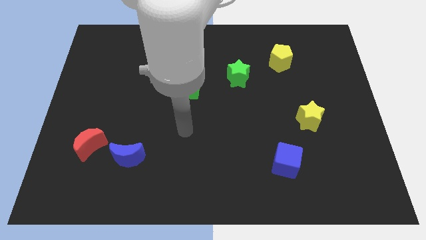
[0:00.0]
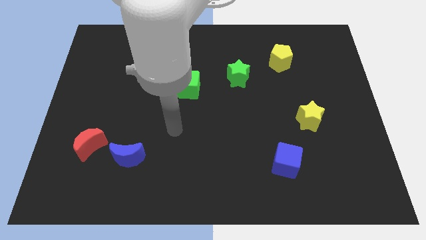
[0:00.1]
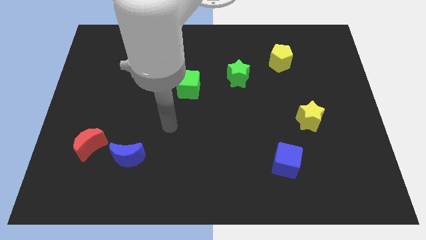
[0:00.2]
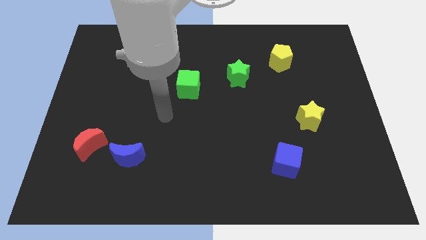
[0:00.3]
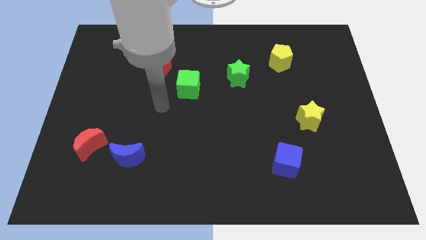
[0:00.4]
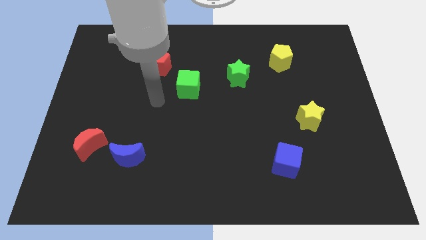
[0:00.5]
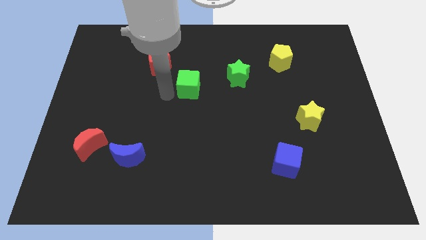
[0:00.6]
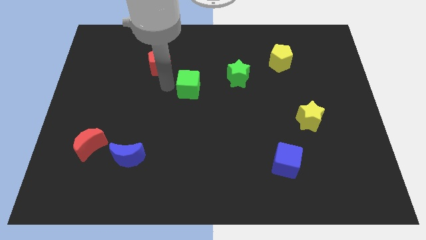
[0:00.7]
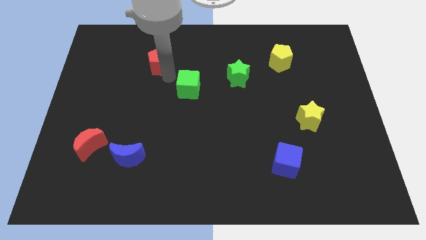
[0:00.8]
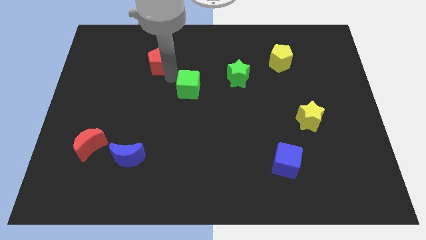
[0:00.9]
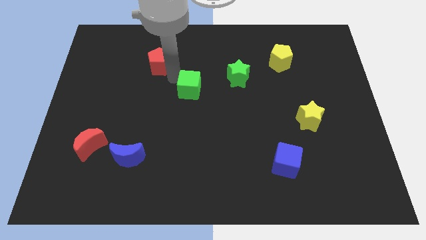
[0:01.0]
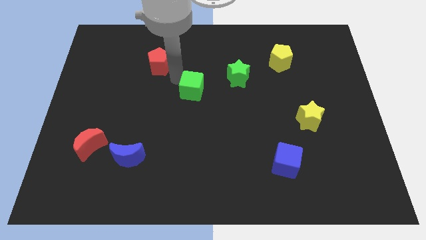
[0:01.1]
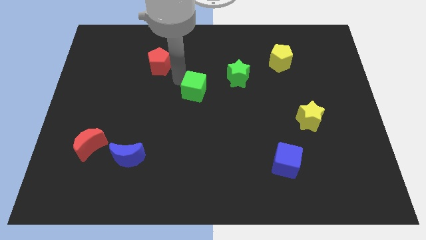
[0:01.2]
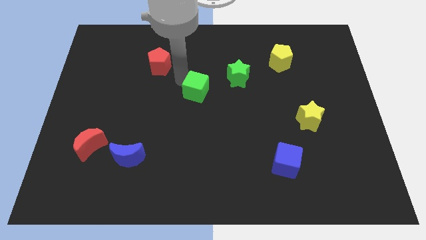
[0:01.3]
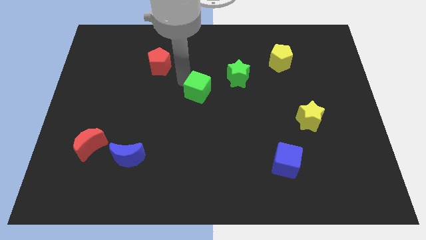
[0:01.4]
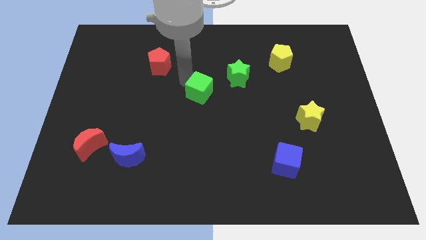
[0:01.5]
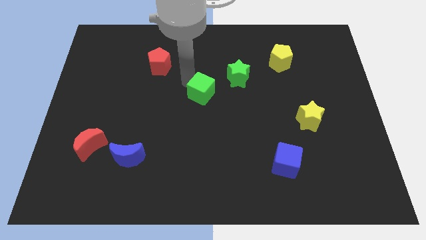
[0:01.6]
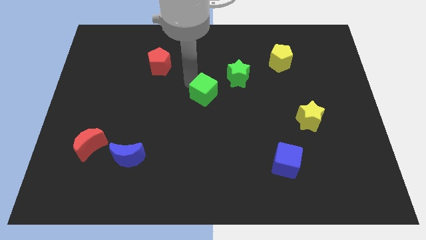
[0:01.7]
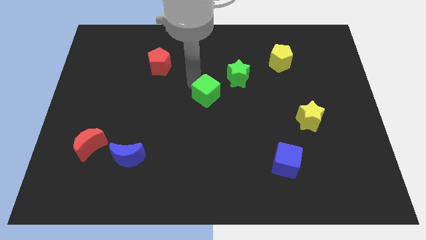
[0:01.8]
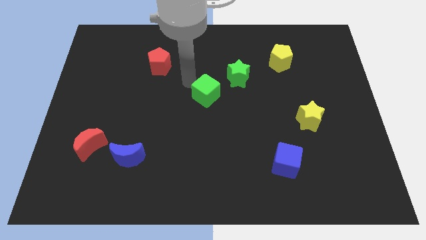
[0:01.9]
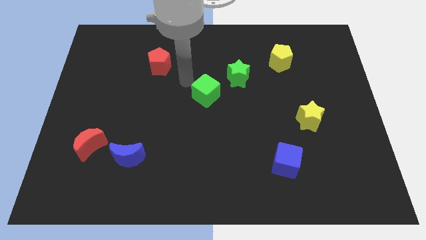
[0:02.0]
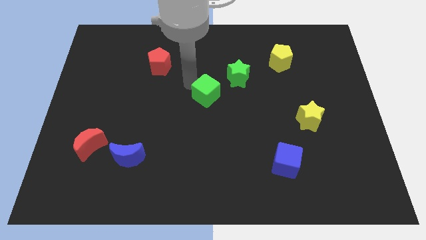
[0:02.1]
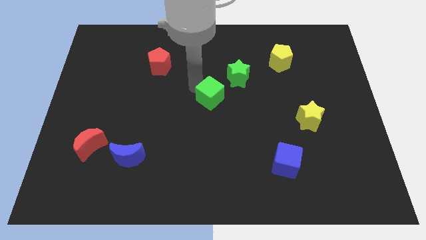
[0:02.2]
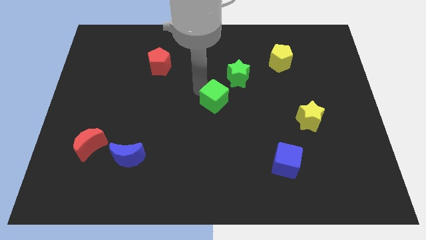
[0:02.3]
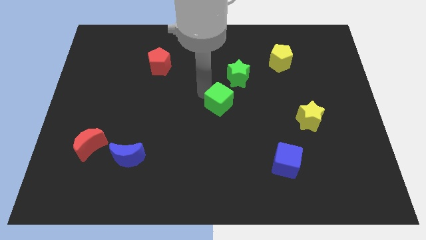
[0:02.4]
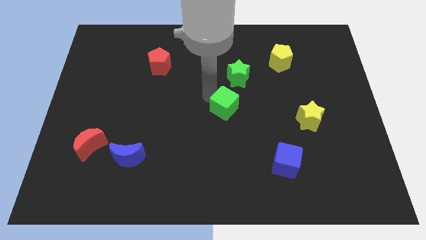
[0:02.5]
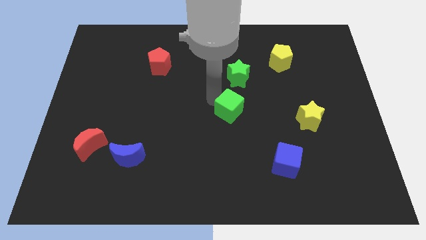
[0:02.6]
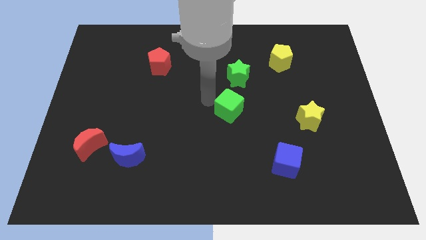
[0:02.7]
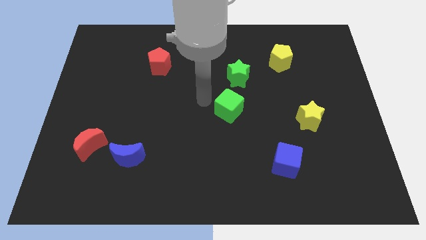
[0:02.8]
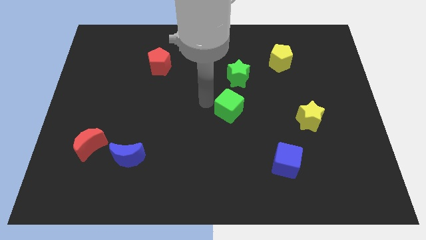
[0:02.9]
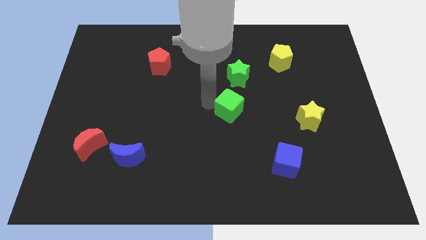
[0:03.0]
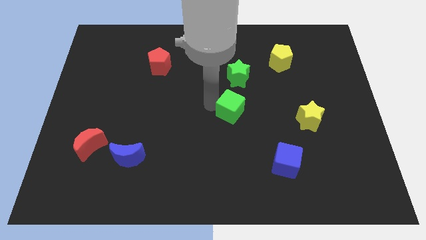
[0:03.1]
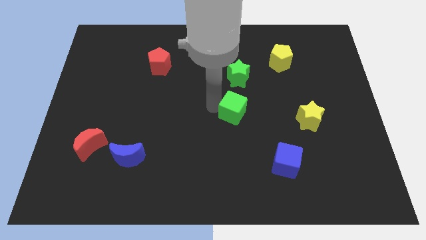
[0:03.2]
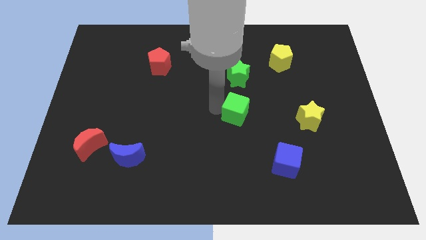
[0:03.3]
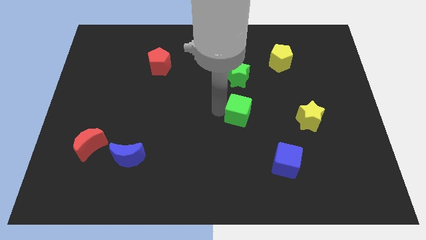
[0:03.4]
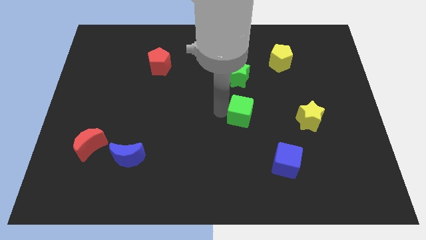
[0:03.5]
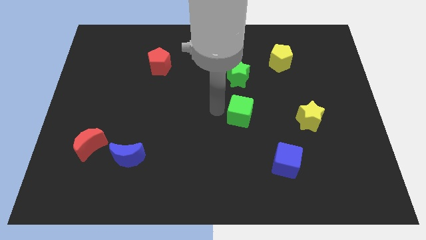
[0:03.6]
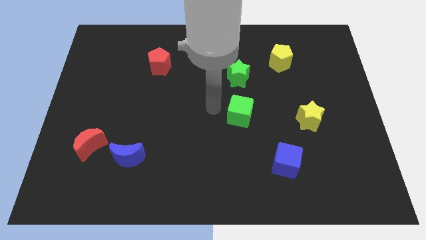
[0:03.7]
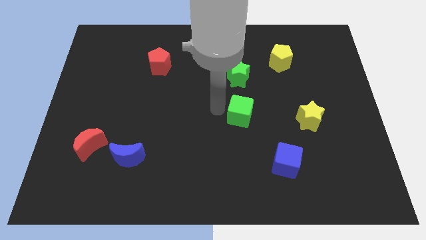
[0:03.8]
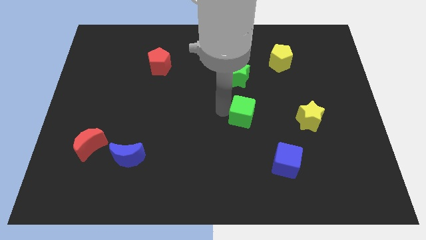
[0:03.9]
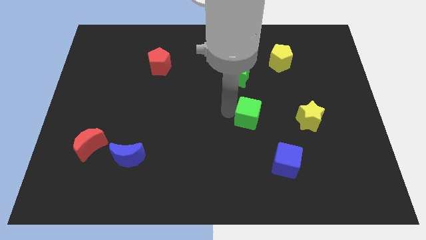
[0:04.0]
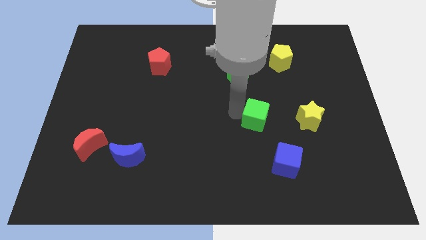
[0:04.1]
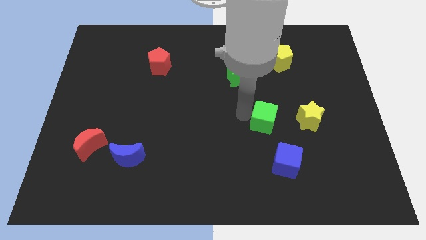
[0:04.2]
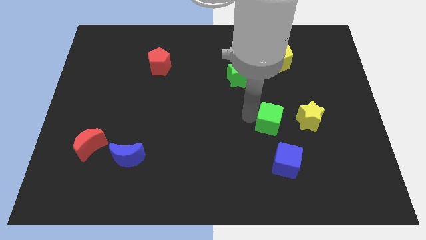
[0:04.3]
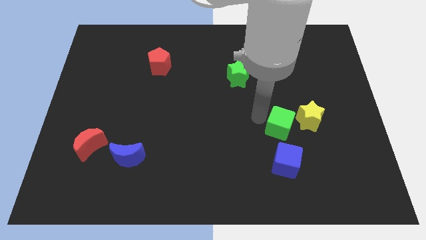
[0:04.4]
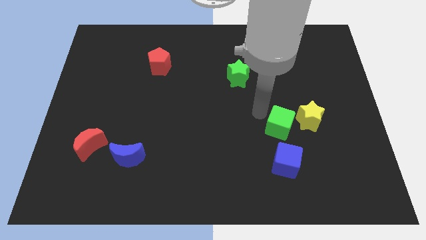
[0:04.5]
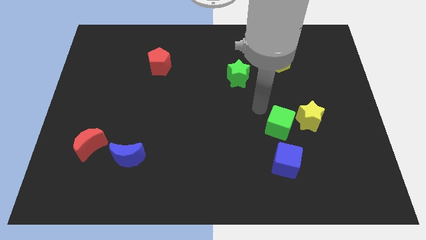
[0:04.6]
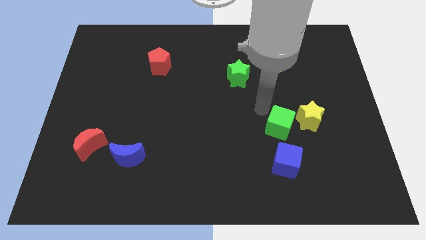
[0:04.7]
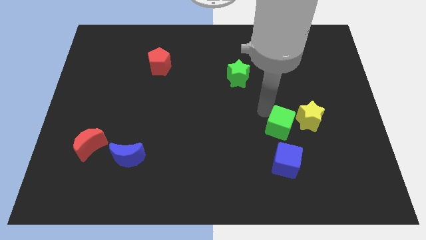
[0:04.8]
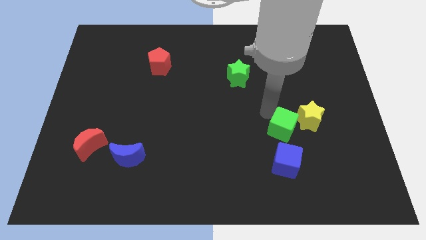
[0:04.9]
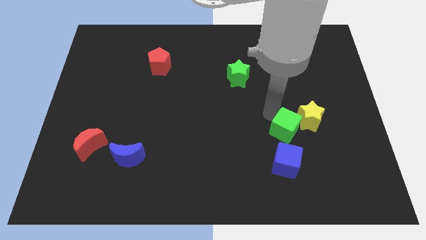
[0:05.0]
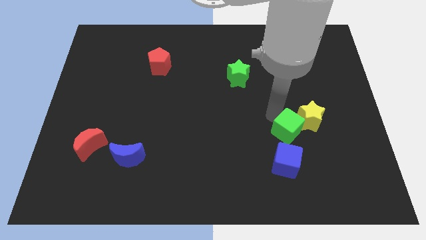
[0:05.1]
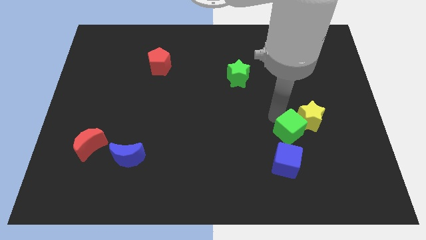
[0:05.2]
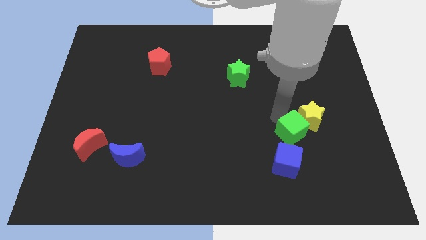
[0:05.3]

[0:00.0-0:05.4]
push the green cube to the bottom of the yellow star

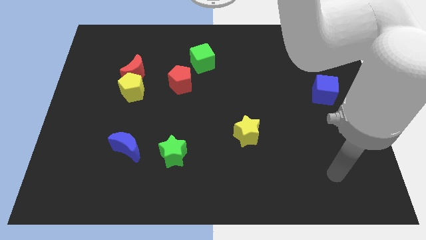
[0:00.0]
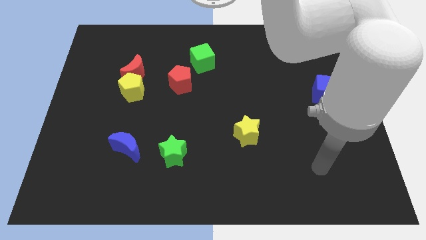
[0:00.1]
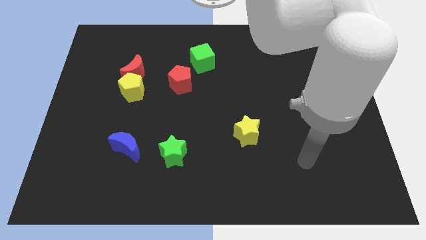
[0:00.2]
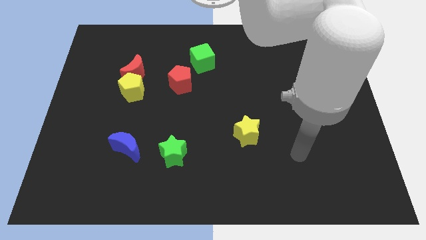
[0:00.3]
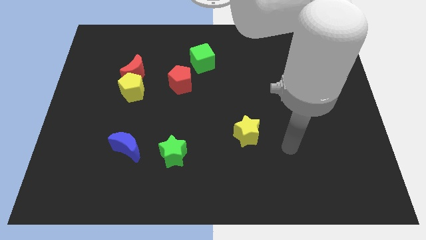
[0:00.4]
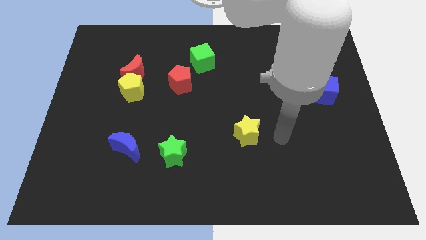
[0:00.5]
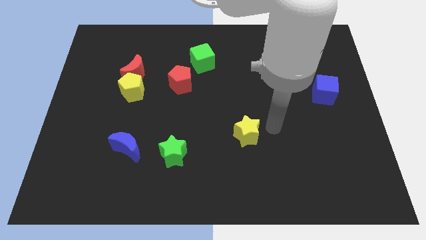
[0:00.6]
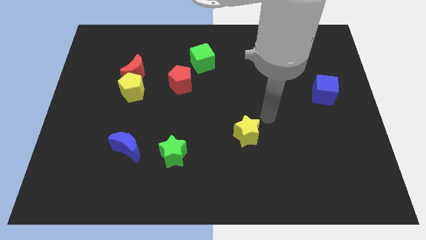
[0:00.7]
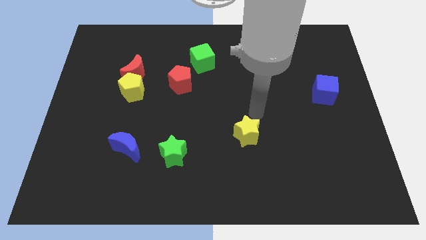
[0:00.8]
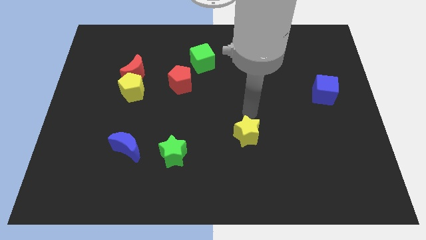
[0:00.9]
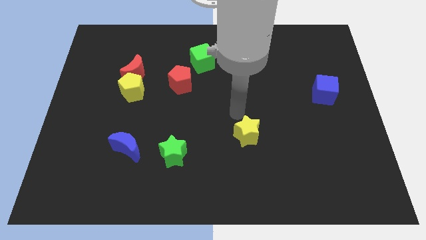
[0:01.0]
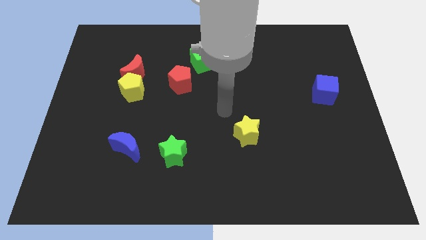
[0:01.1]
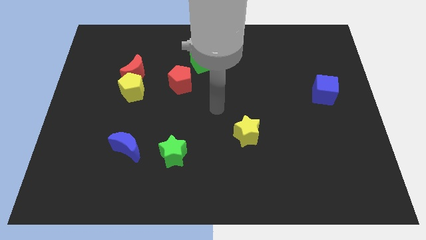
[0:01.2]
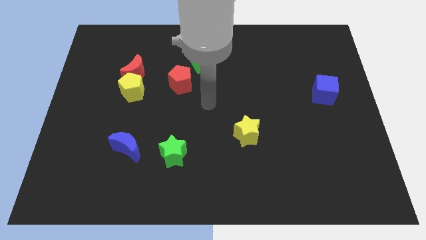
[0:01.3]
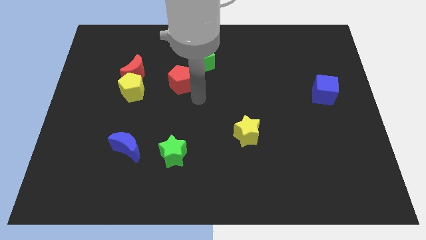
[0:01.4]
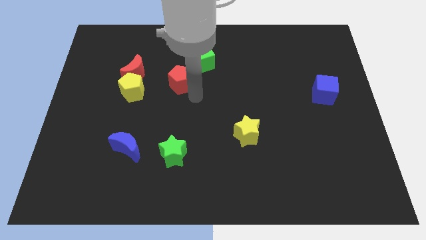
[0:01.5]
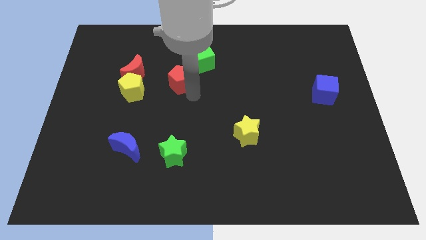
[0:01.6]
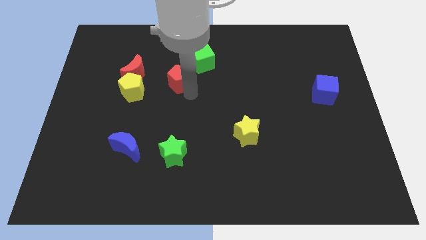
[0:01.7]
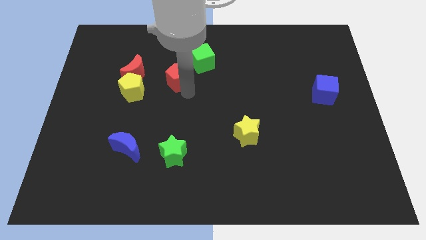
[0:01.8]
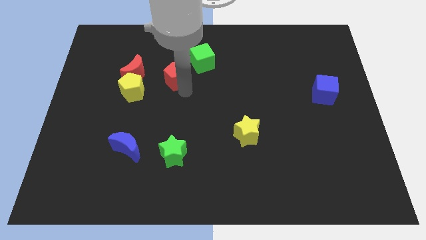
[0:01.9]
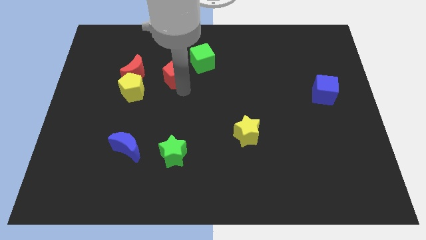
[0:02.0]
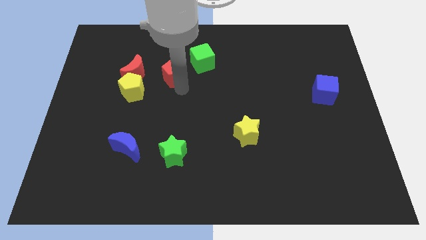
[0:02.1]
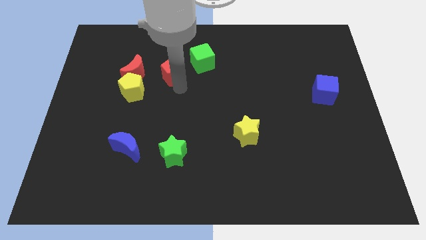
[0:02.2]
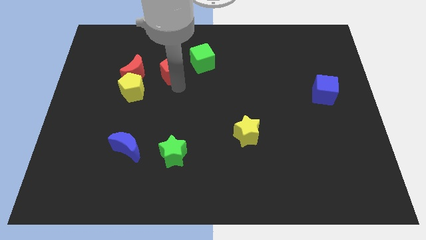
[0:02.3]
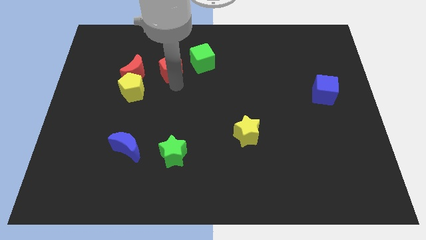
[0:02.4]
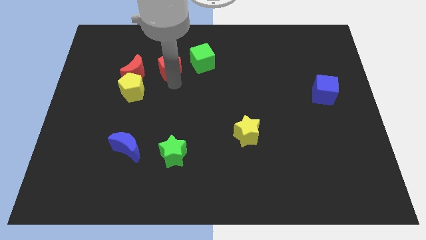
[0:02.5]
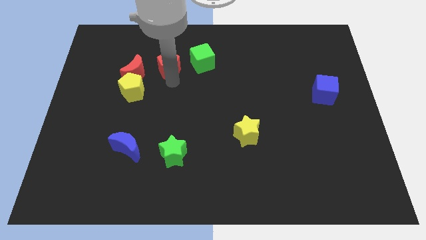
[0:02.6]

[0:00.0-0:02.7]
put the red pentagon to the top right side of the red moon
